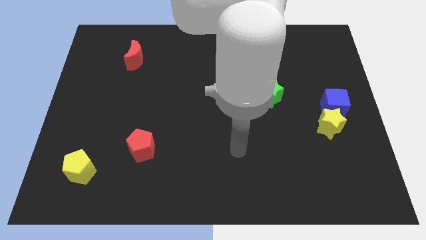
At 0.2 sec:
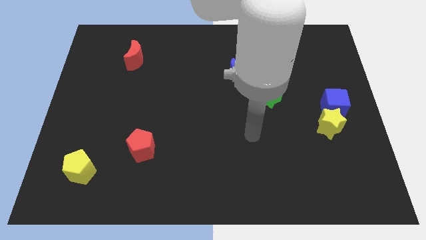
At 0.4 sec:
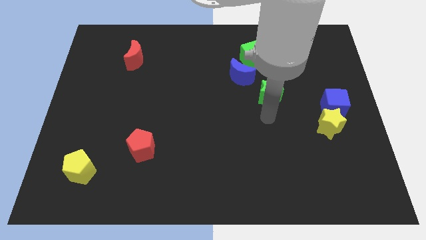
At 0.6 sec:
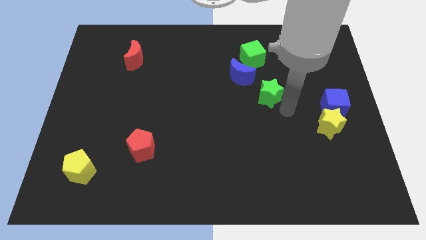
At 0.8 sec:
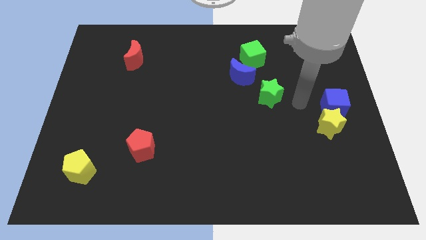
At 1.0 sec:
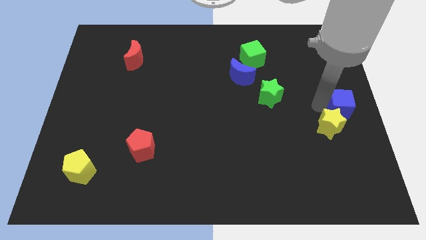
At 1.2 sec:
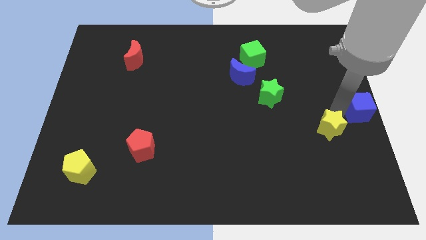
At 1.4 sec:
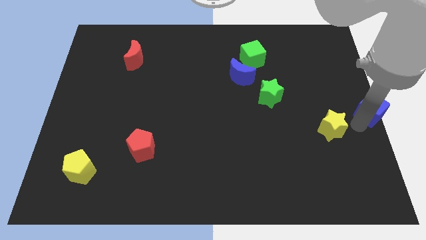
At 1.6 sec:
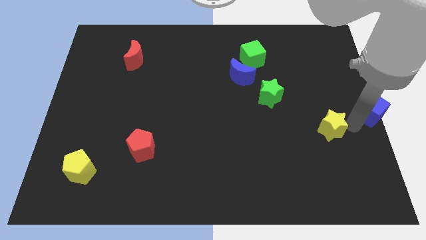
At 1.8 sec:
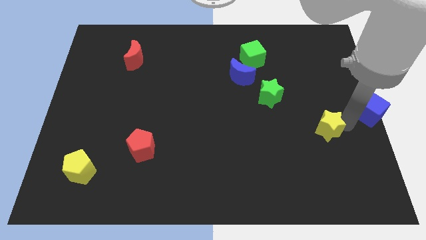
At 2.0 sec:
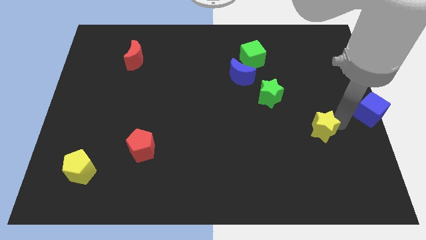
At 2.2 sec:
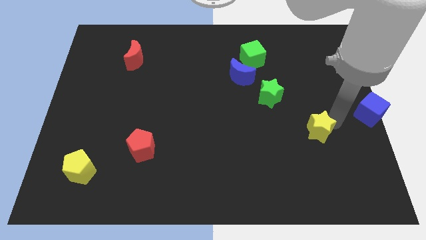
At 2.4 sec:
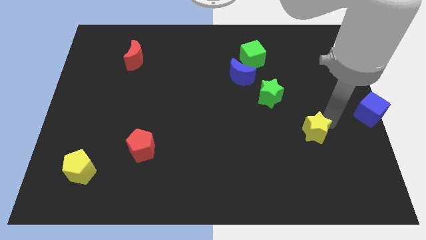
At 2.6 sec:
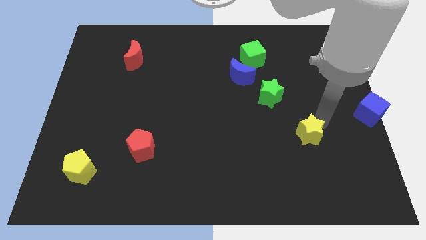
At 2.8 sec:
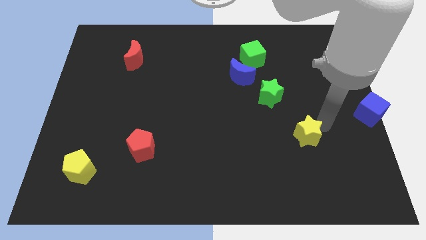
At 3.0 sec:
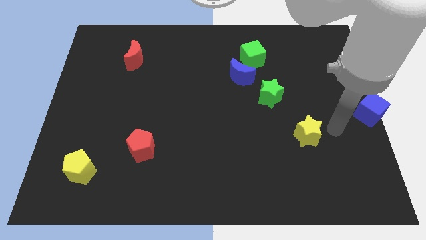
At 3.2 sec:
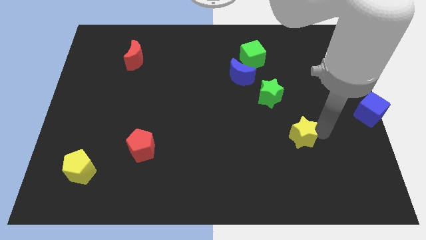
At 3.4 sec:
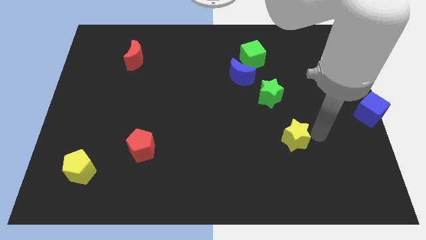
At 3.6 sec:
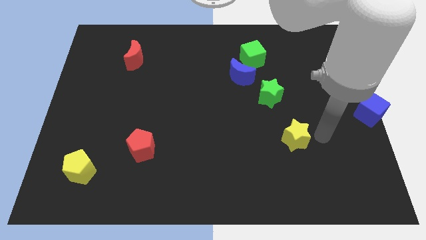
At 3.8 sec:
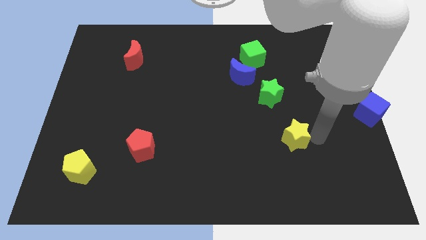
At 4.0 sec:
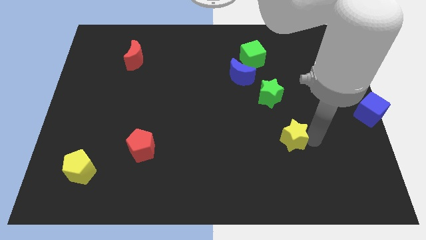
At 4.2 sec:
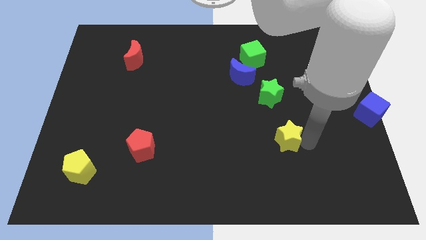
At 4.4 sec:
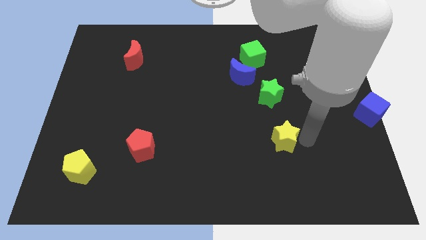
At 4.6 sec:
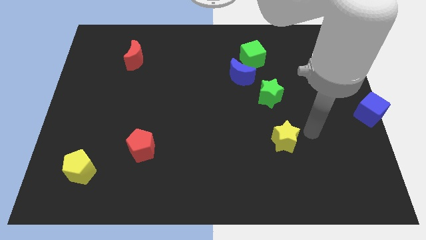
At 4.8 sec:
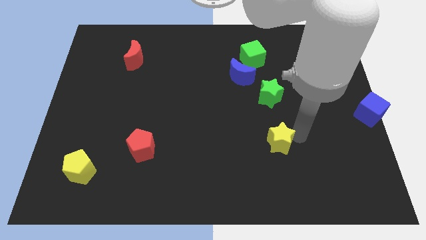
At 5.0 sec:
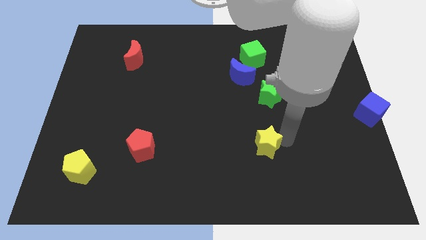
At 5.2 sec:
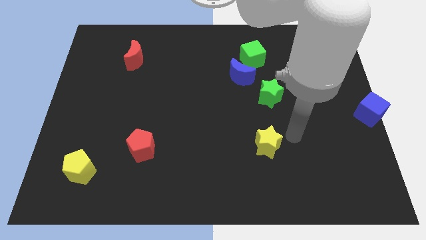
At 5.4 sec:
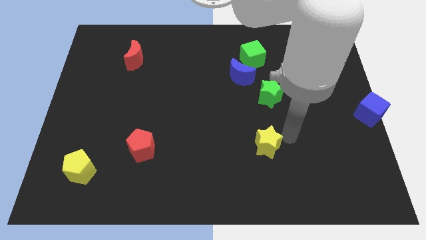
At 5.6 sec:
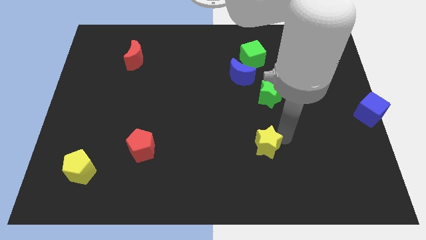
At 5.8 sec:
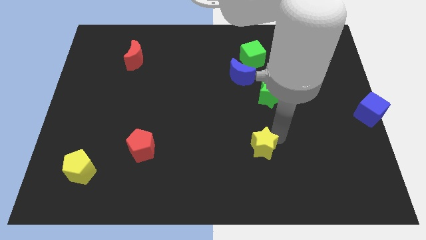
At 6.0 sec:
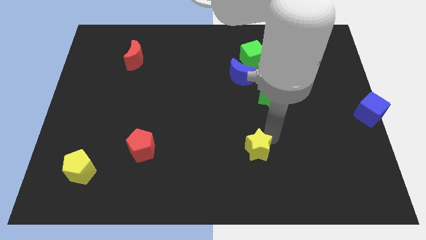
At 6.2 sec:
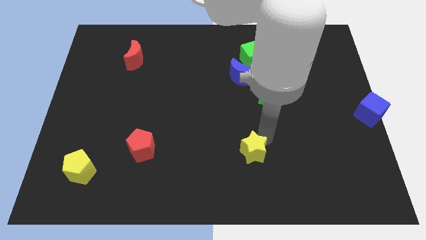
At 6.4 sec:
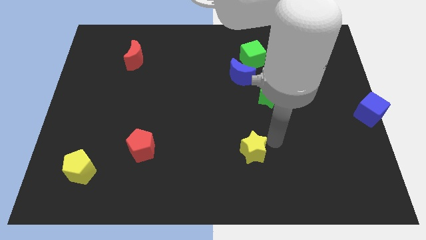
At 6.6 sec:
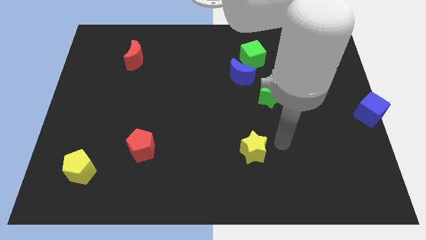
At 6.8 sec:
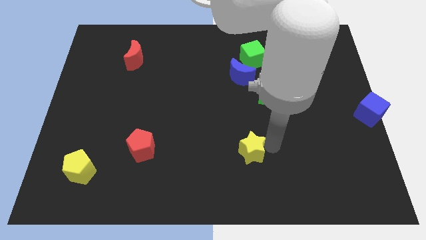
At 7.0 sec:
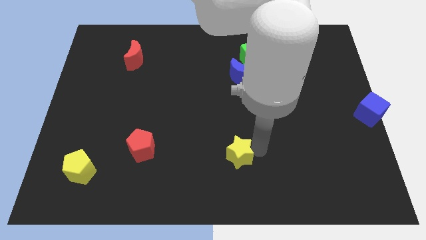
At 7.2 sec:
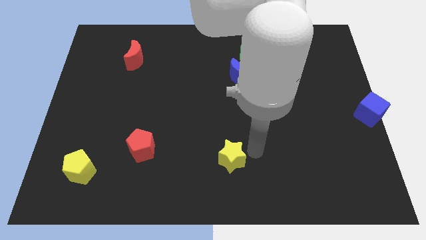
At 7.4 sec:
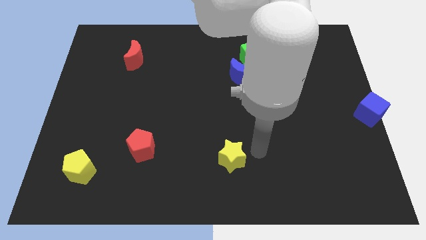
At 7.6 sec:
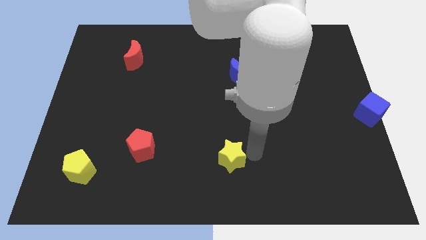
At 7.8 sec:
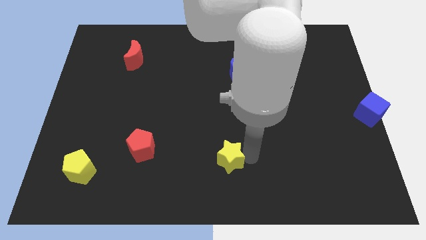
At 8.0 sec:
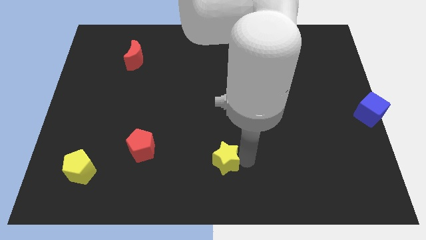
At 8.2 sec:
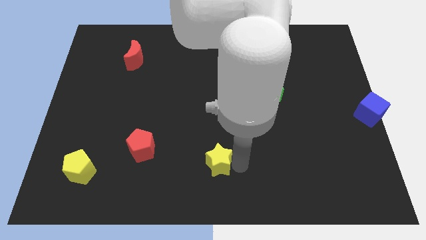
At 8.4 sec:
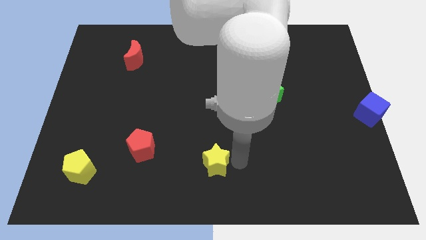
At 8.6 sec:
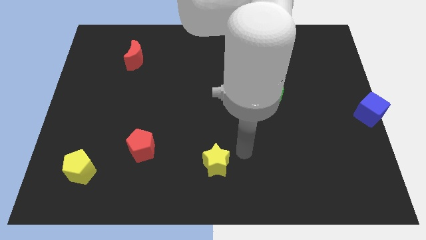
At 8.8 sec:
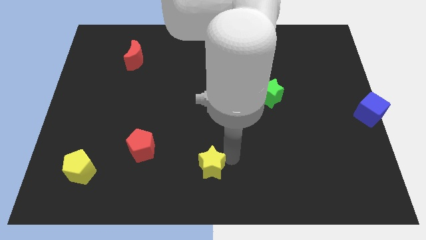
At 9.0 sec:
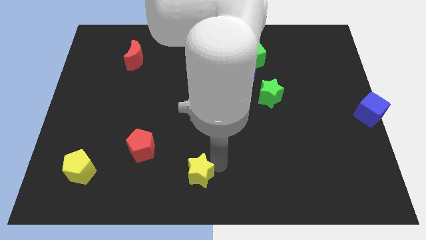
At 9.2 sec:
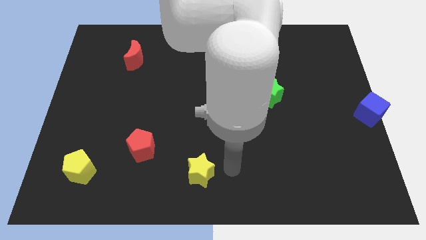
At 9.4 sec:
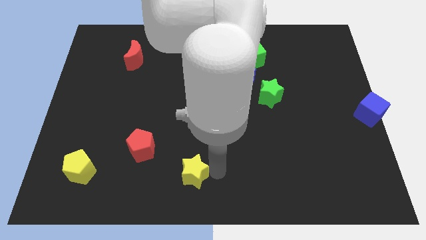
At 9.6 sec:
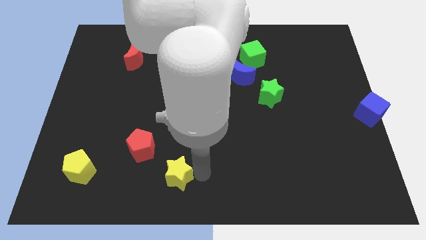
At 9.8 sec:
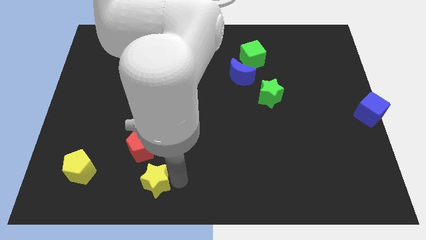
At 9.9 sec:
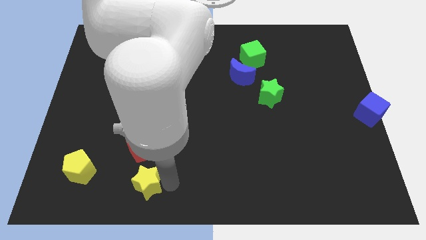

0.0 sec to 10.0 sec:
push the yellow star to the right side of the yellow pentagon

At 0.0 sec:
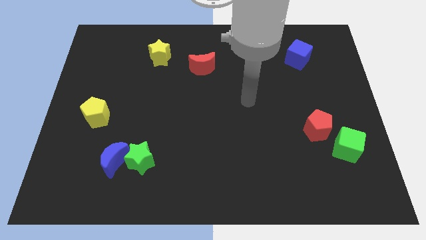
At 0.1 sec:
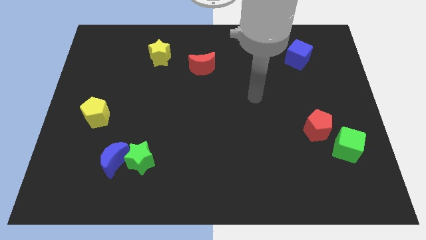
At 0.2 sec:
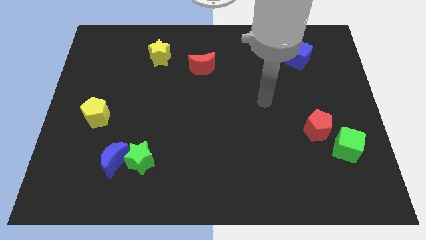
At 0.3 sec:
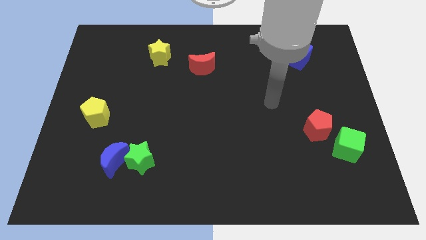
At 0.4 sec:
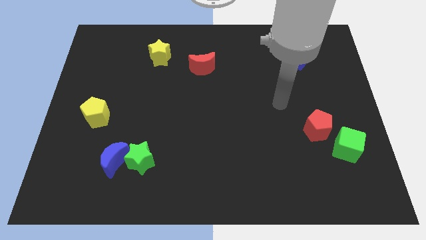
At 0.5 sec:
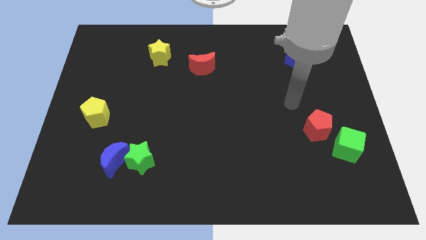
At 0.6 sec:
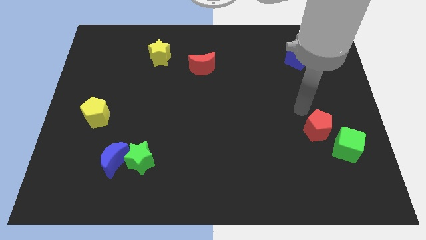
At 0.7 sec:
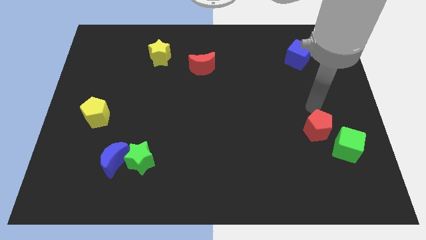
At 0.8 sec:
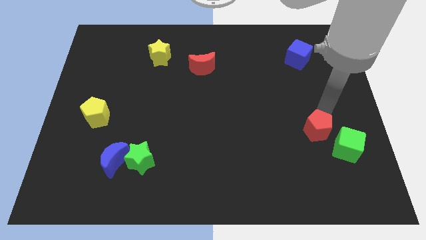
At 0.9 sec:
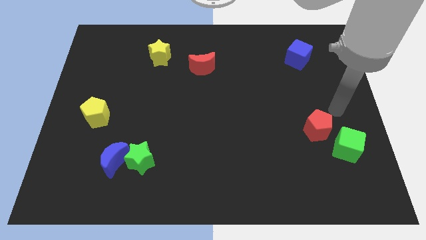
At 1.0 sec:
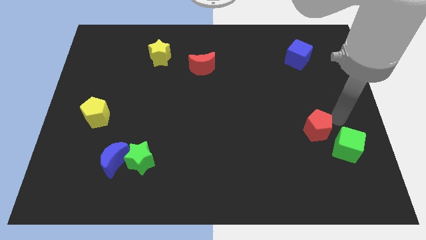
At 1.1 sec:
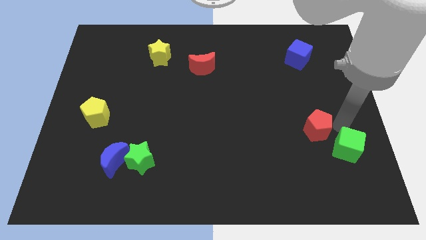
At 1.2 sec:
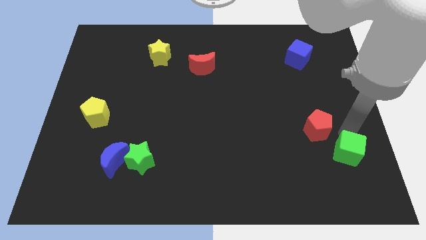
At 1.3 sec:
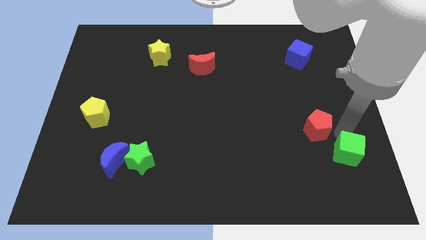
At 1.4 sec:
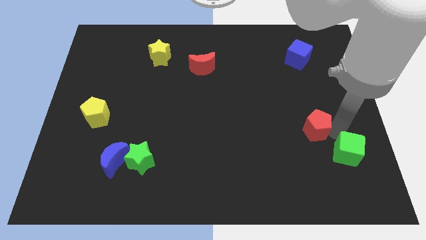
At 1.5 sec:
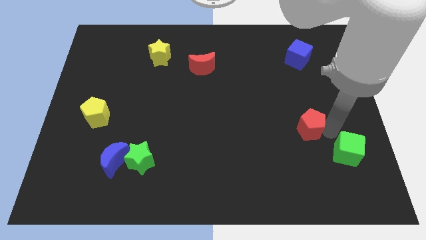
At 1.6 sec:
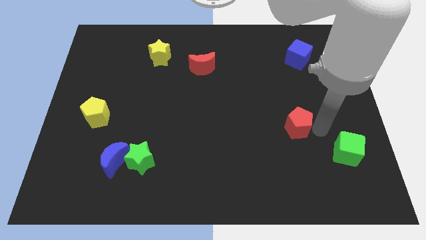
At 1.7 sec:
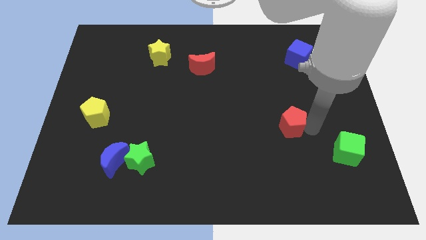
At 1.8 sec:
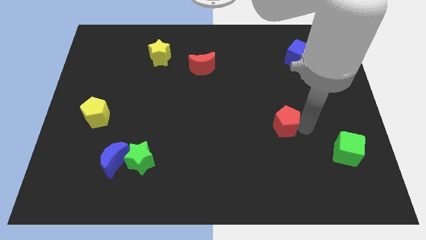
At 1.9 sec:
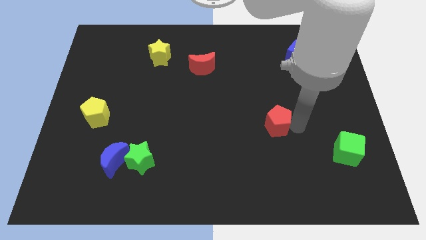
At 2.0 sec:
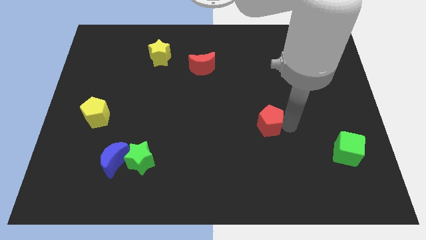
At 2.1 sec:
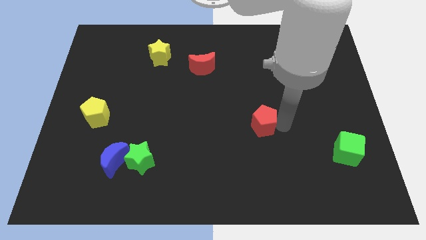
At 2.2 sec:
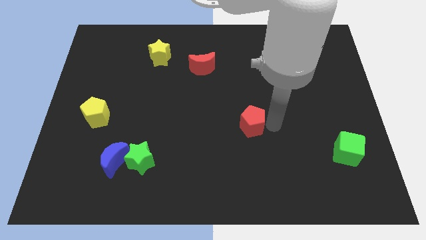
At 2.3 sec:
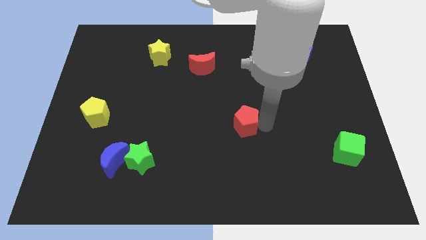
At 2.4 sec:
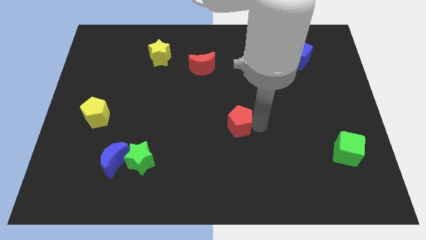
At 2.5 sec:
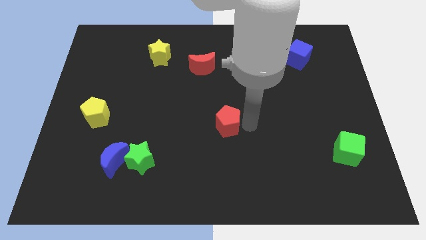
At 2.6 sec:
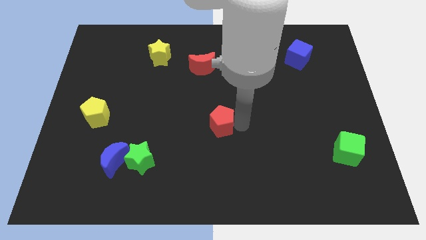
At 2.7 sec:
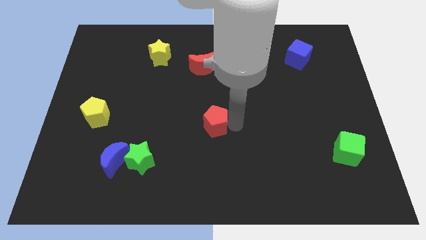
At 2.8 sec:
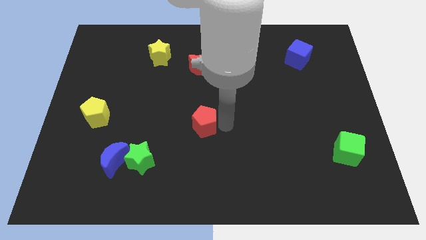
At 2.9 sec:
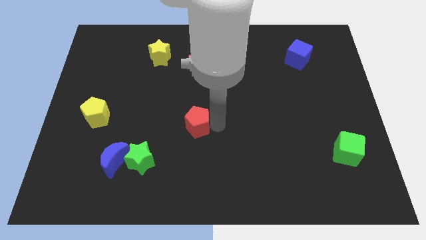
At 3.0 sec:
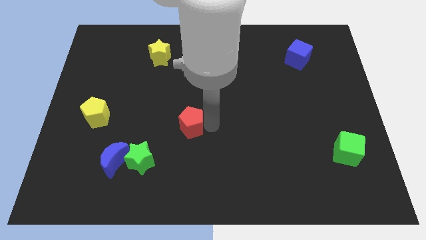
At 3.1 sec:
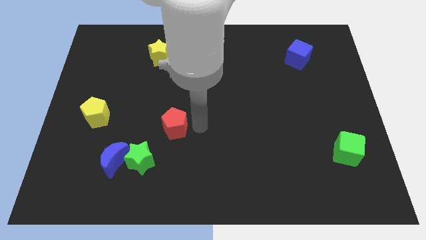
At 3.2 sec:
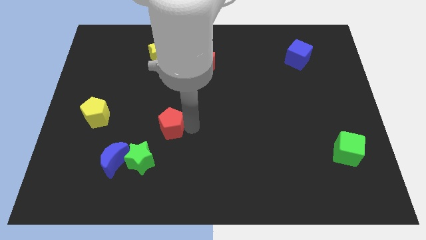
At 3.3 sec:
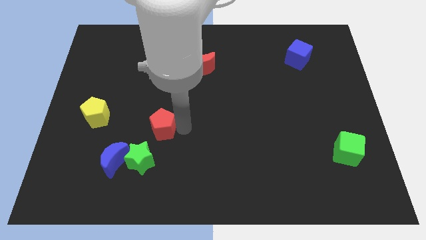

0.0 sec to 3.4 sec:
put the red pentagon to the top of the green star
